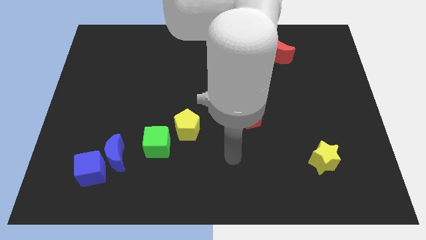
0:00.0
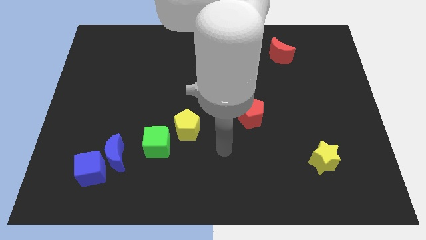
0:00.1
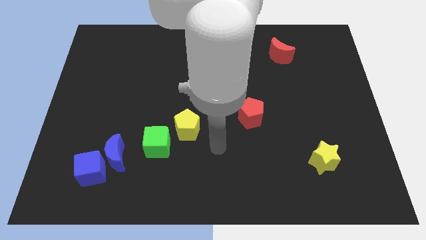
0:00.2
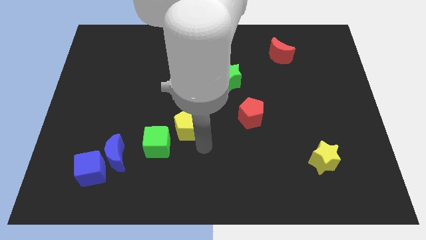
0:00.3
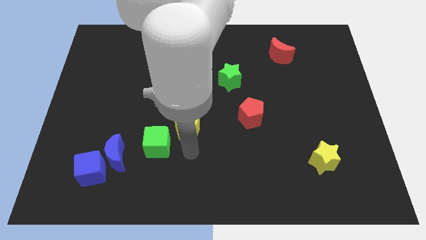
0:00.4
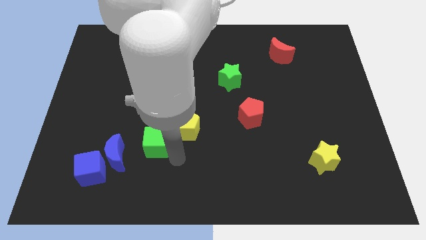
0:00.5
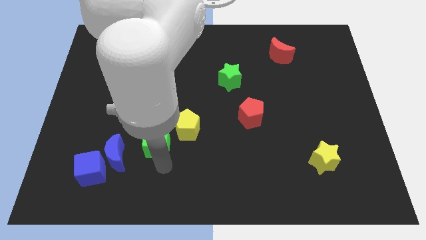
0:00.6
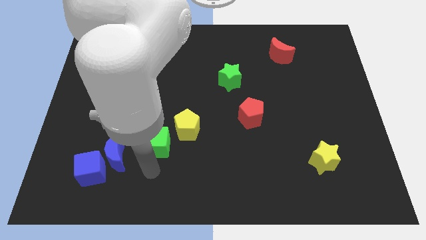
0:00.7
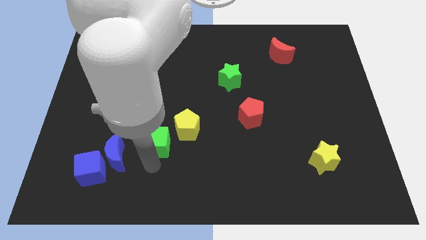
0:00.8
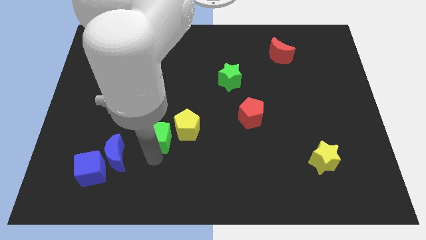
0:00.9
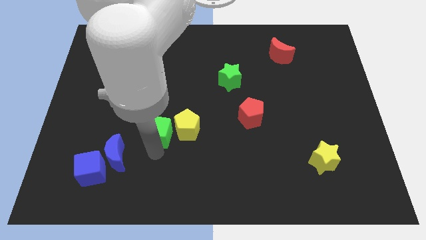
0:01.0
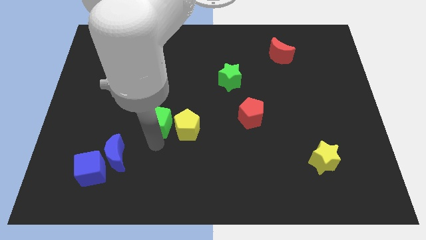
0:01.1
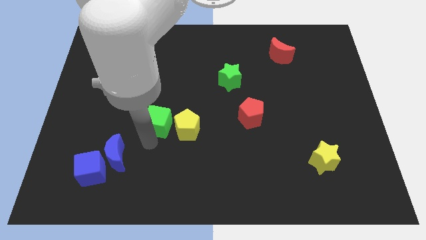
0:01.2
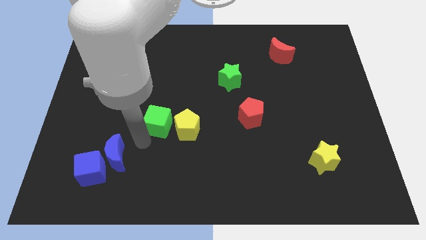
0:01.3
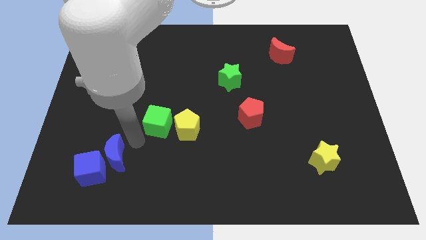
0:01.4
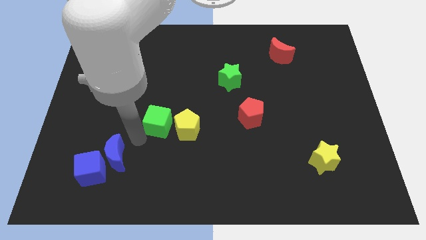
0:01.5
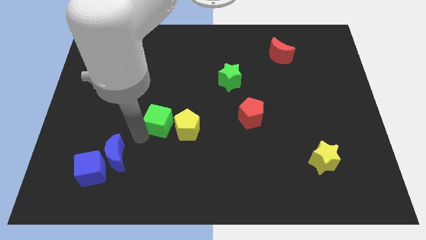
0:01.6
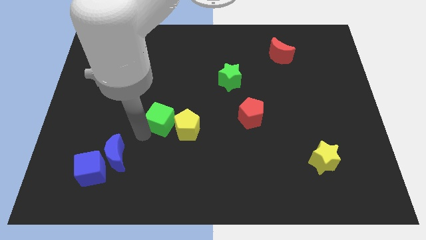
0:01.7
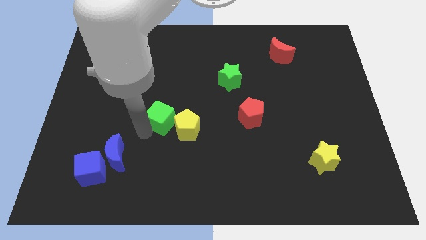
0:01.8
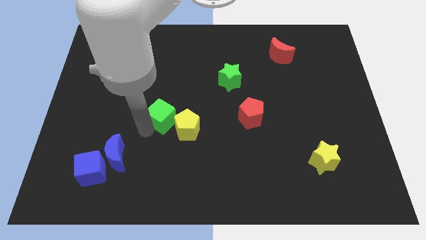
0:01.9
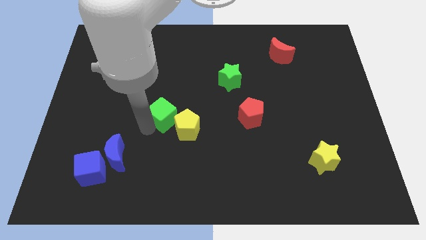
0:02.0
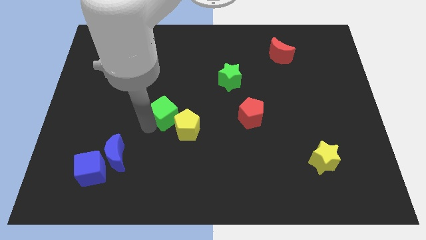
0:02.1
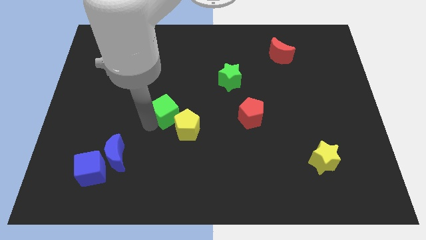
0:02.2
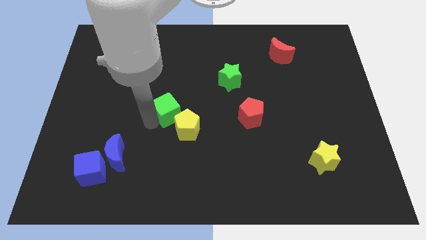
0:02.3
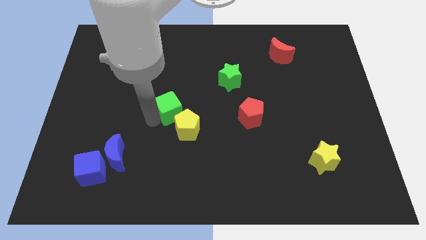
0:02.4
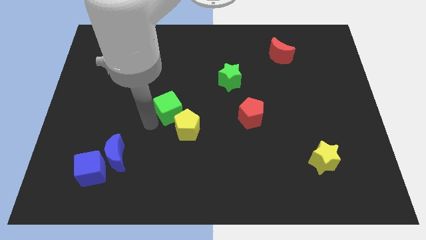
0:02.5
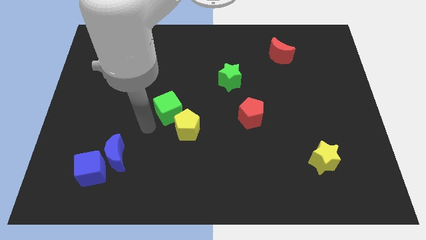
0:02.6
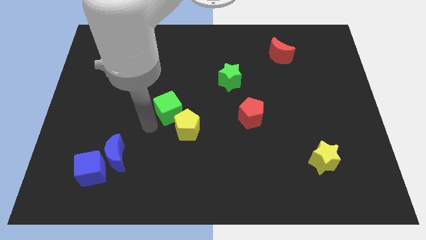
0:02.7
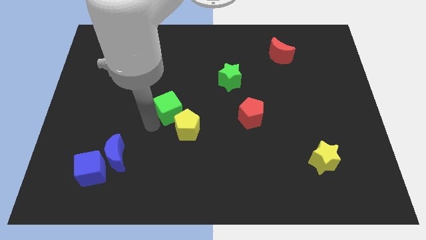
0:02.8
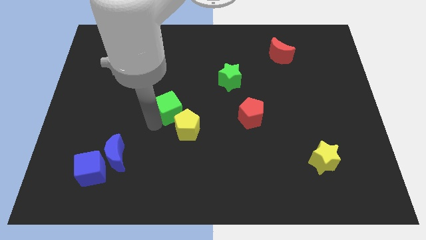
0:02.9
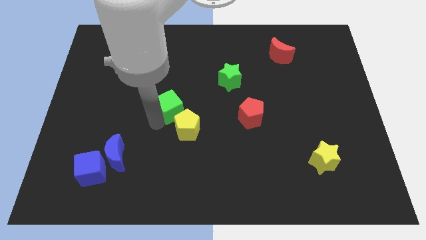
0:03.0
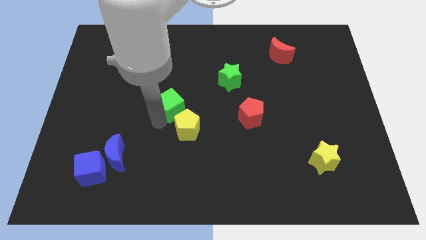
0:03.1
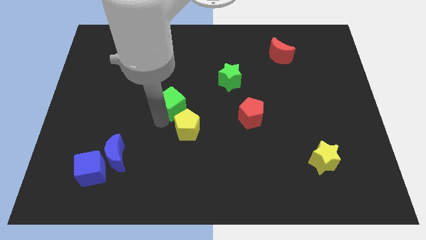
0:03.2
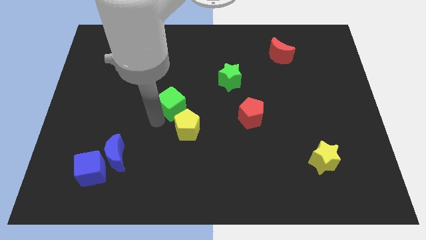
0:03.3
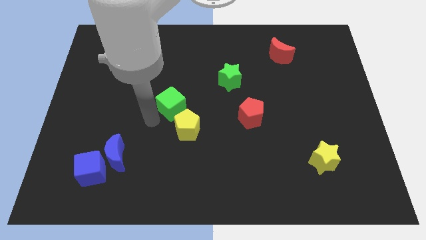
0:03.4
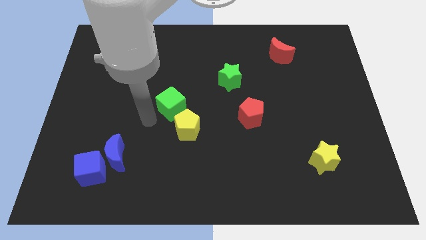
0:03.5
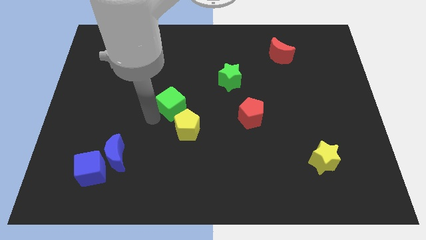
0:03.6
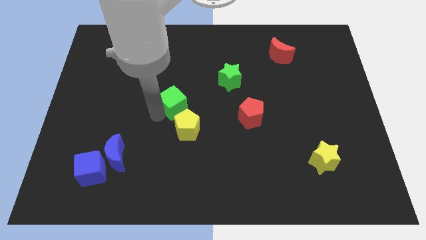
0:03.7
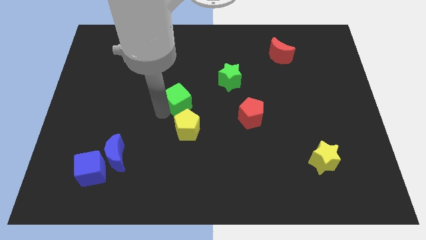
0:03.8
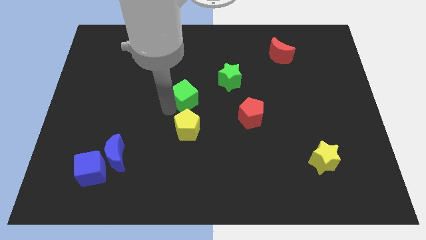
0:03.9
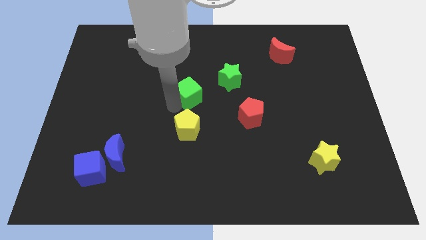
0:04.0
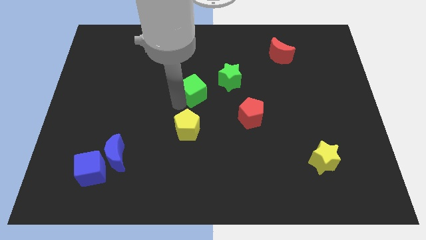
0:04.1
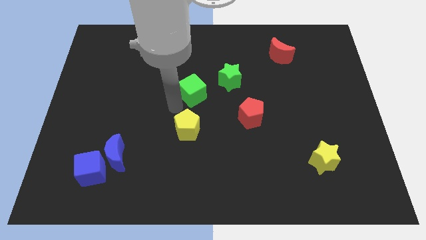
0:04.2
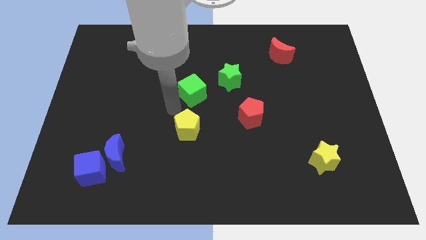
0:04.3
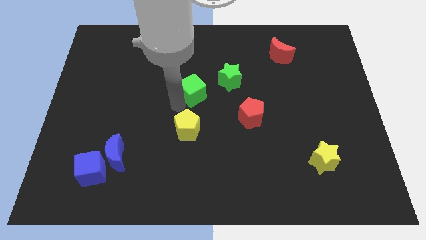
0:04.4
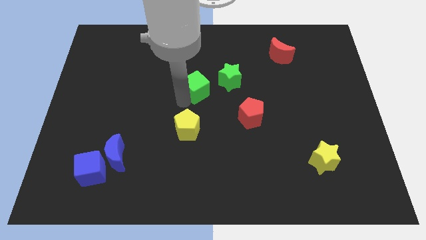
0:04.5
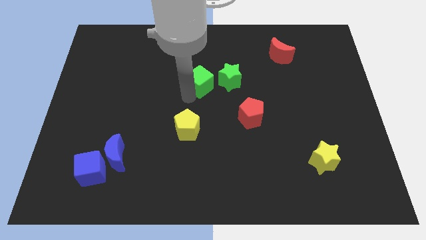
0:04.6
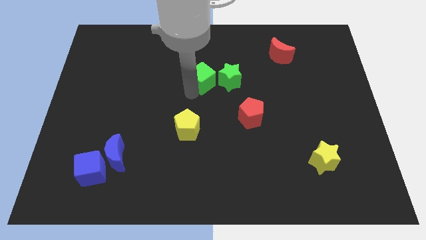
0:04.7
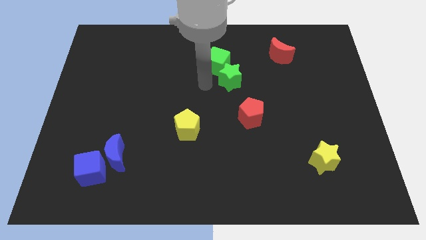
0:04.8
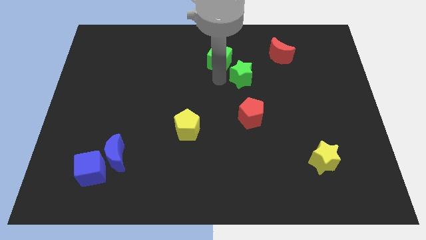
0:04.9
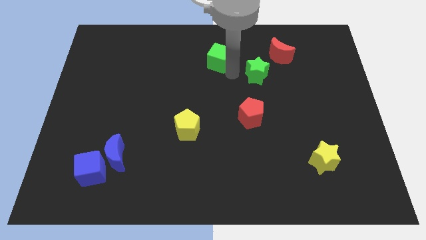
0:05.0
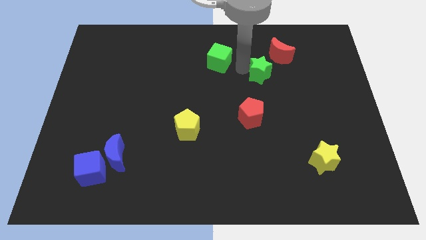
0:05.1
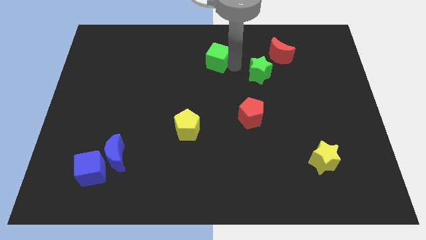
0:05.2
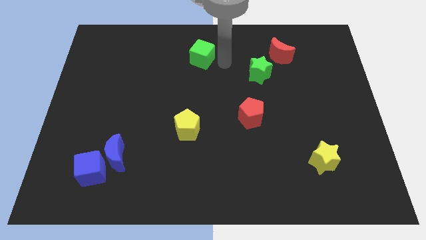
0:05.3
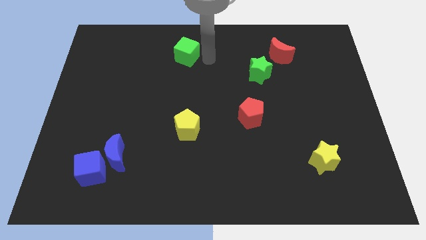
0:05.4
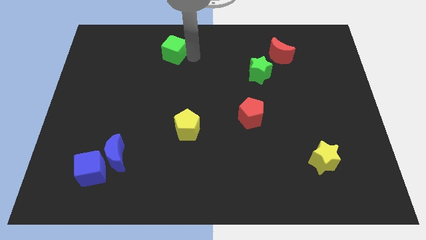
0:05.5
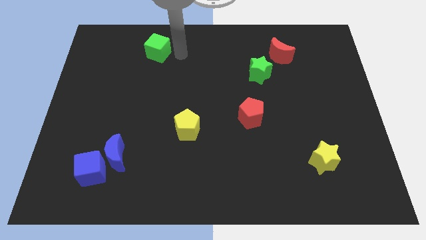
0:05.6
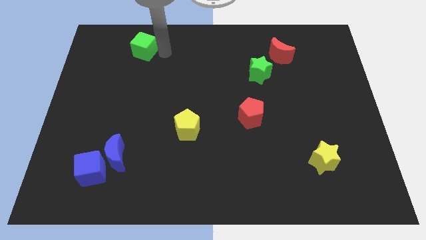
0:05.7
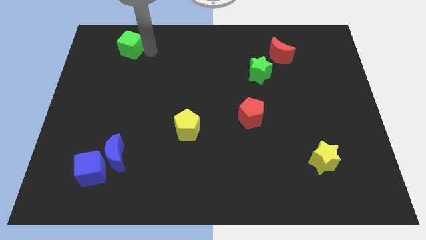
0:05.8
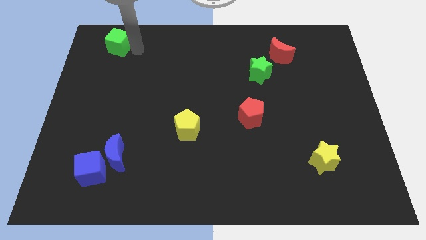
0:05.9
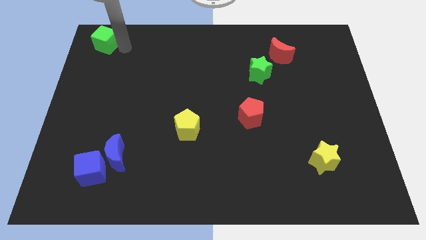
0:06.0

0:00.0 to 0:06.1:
slide the green cube to the top left
